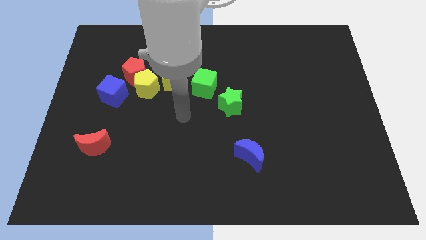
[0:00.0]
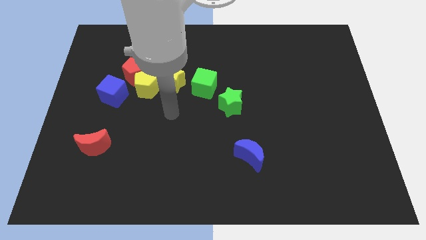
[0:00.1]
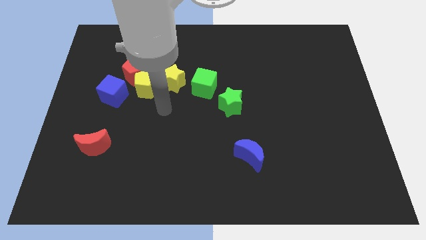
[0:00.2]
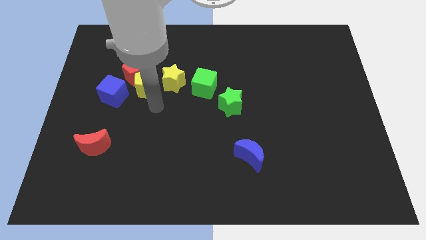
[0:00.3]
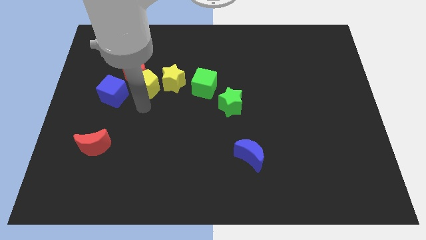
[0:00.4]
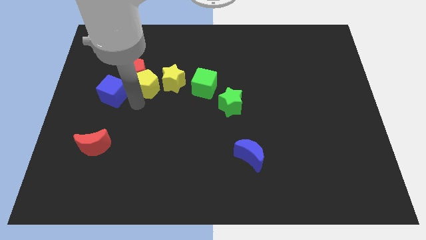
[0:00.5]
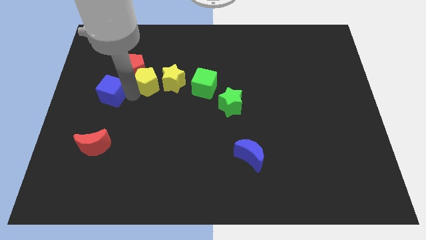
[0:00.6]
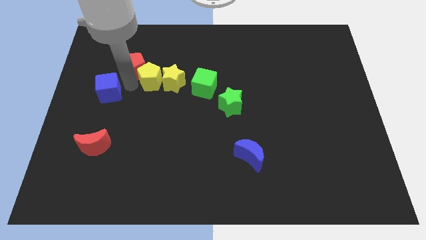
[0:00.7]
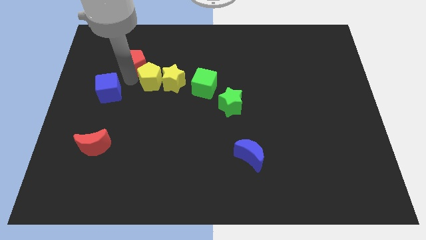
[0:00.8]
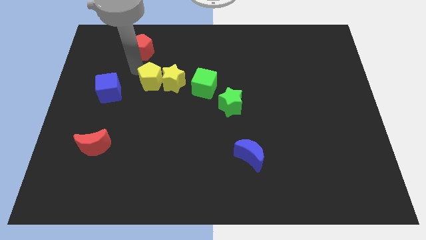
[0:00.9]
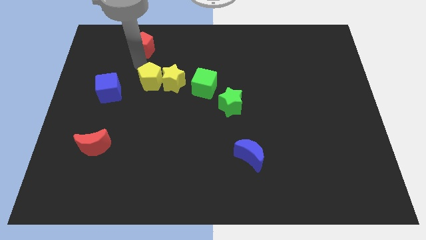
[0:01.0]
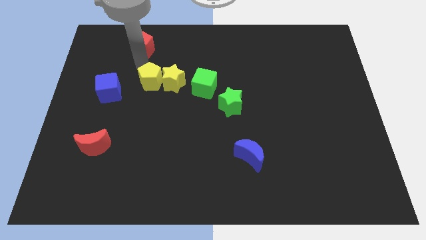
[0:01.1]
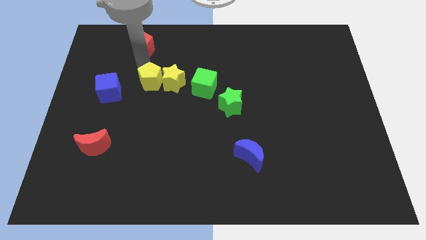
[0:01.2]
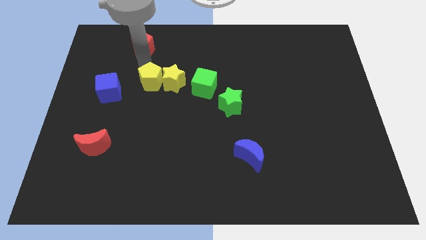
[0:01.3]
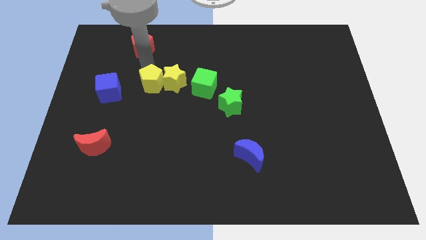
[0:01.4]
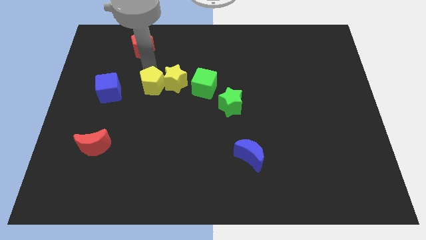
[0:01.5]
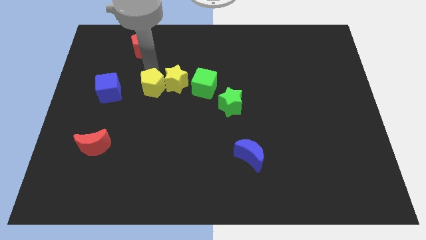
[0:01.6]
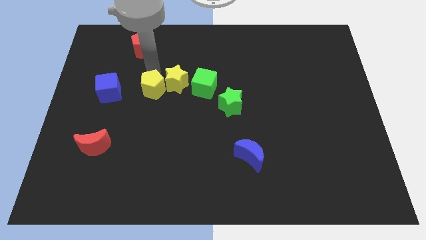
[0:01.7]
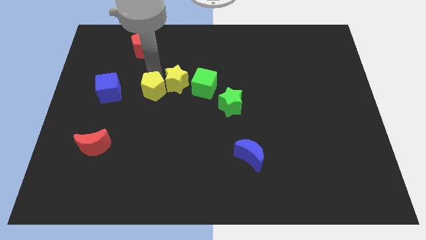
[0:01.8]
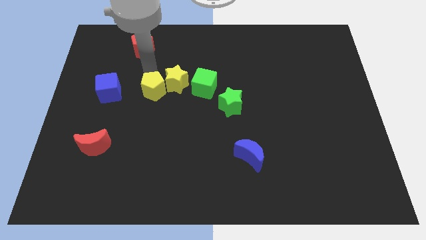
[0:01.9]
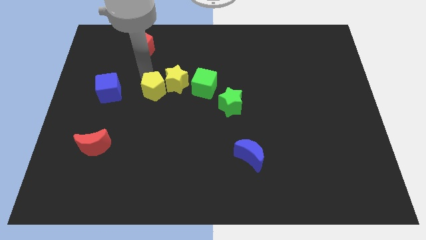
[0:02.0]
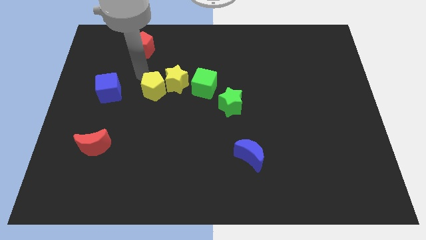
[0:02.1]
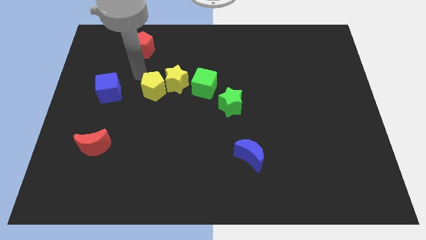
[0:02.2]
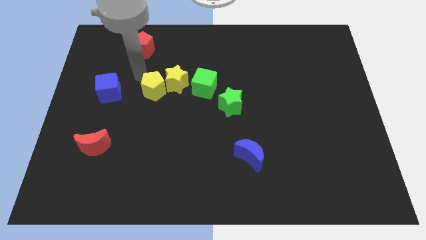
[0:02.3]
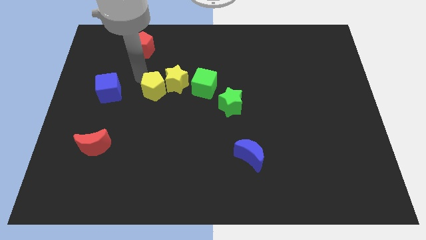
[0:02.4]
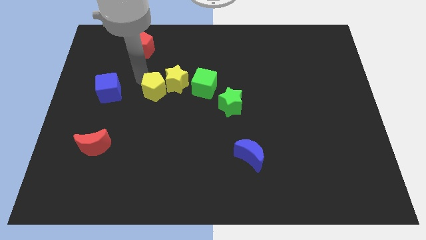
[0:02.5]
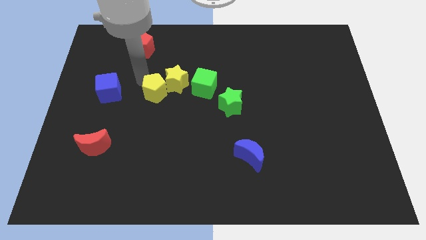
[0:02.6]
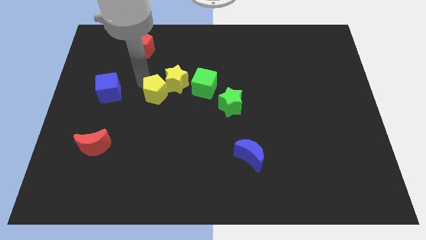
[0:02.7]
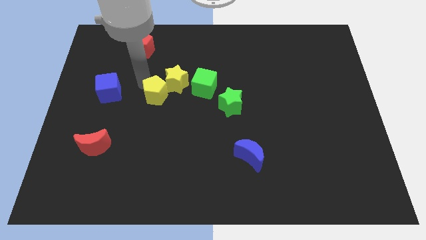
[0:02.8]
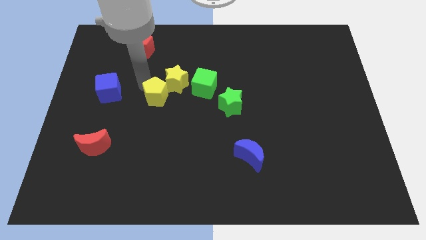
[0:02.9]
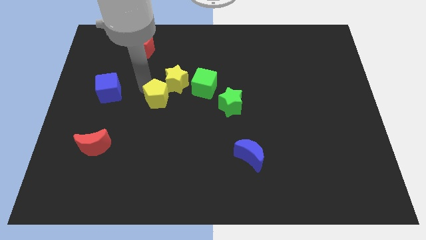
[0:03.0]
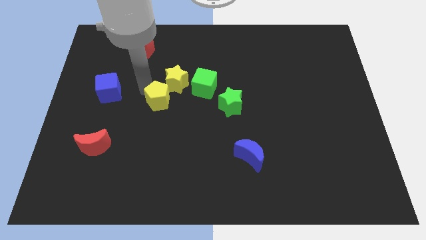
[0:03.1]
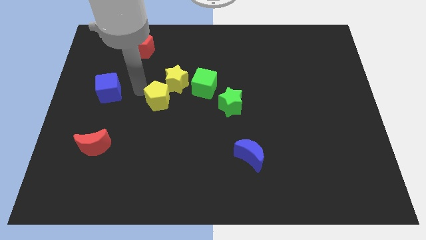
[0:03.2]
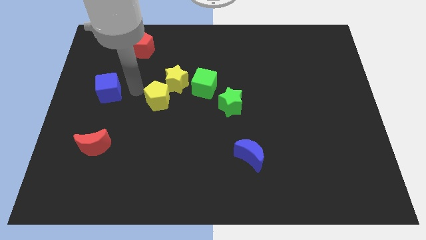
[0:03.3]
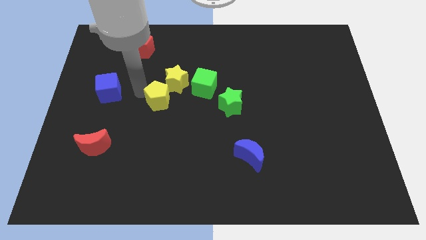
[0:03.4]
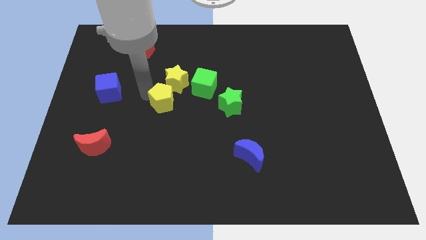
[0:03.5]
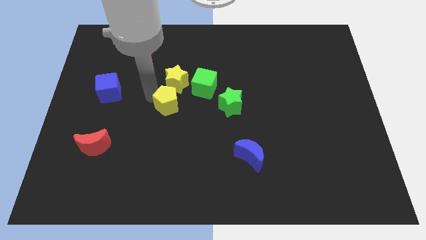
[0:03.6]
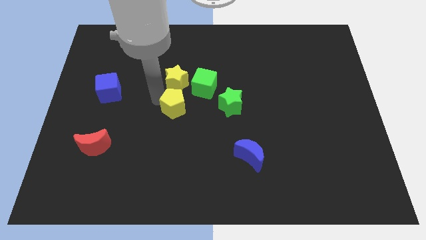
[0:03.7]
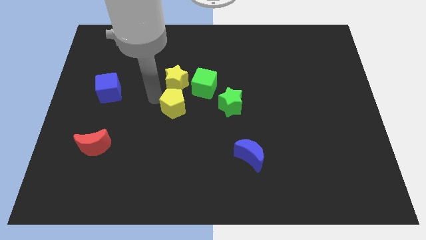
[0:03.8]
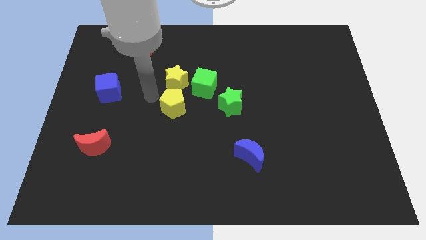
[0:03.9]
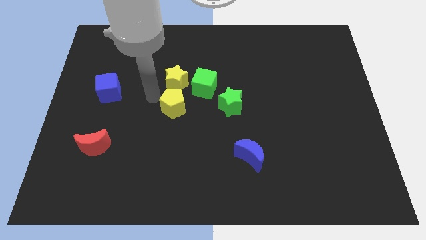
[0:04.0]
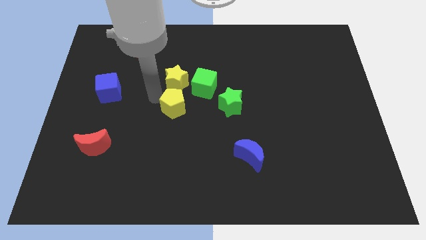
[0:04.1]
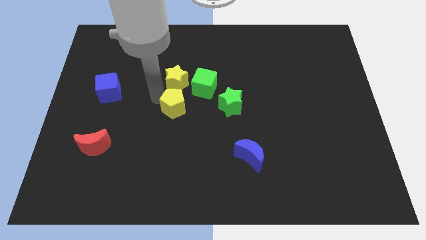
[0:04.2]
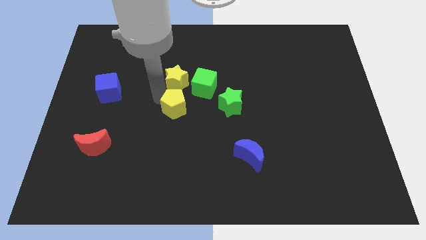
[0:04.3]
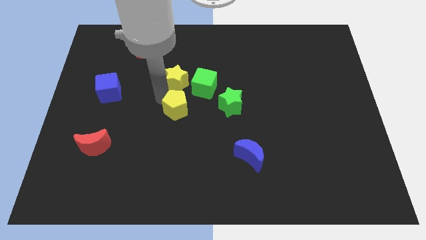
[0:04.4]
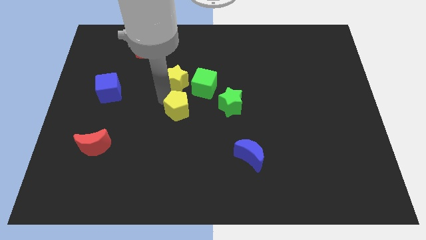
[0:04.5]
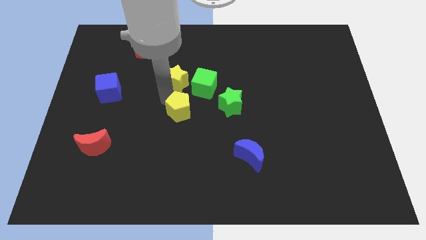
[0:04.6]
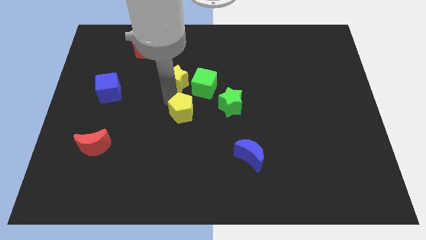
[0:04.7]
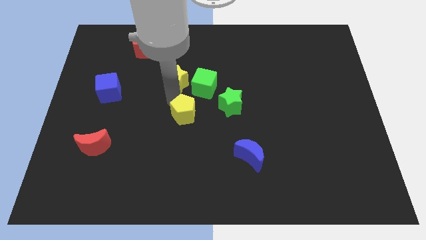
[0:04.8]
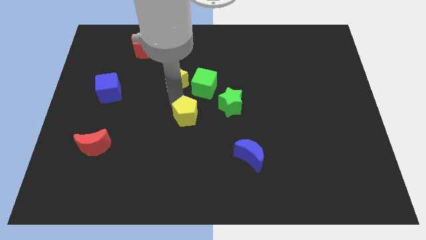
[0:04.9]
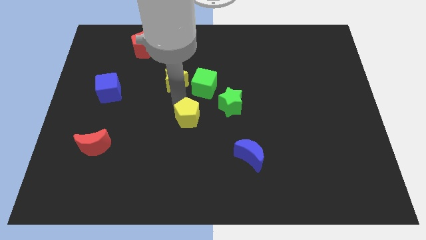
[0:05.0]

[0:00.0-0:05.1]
move the yellow pentagon to the bottom left side of the green star

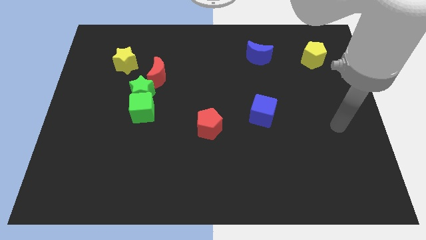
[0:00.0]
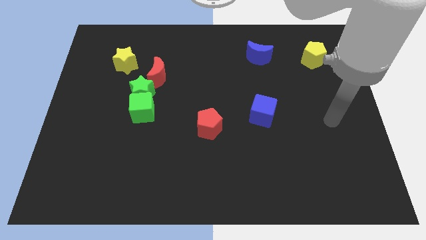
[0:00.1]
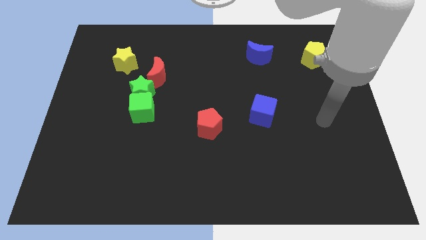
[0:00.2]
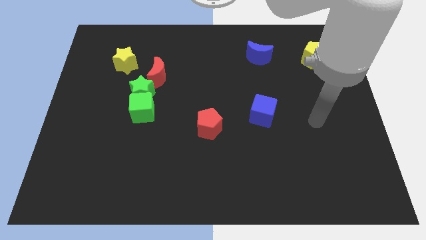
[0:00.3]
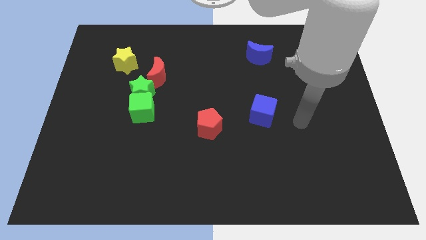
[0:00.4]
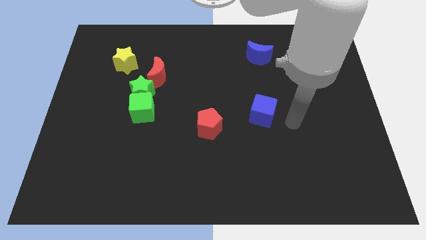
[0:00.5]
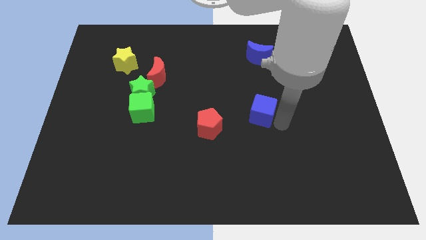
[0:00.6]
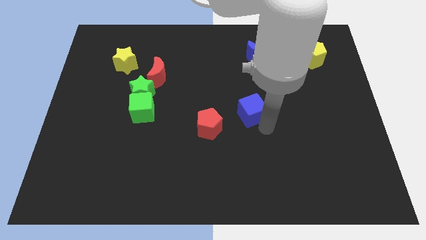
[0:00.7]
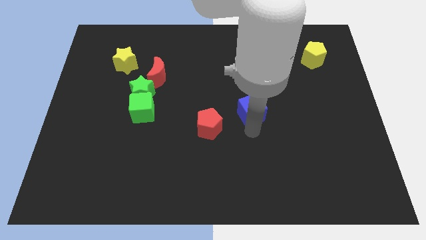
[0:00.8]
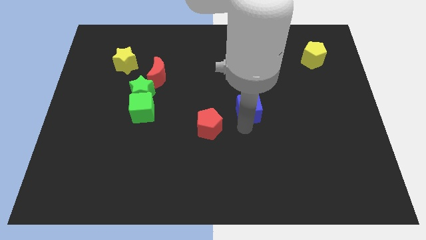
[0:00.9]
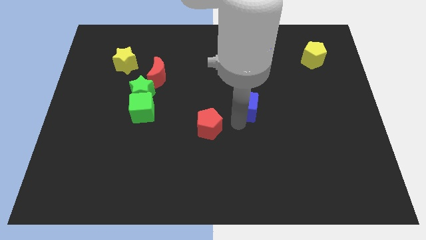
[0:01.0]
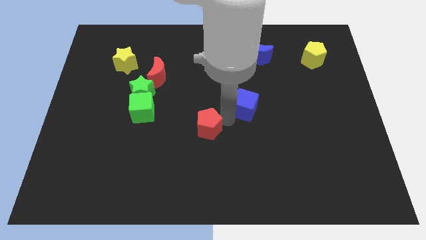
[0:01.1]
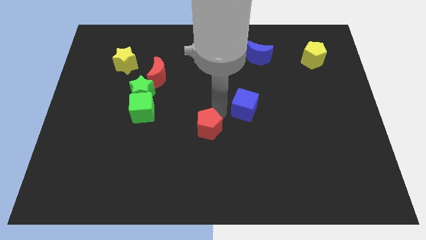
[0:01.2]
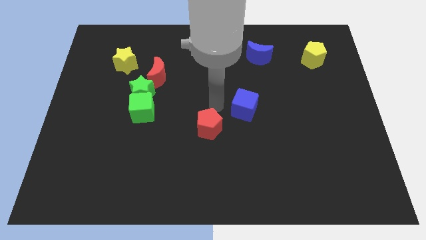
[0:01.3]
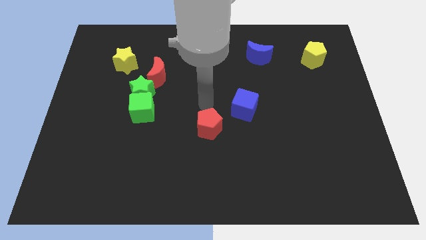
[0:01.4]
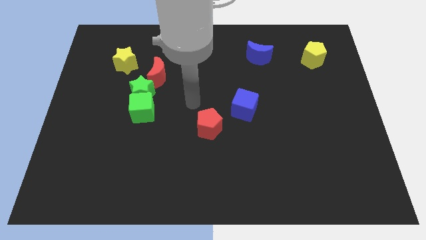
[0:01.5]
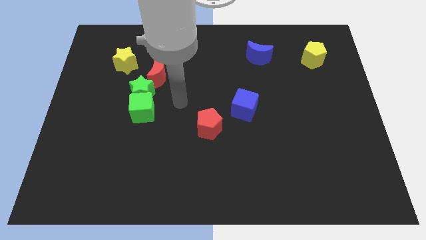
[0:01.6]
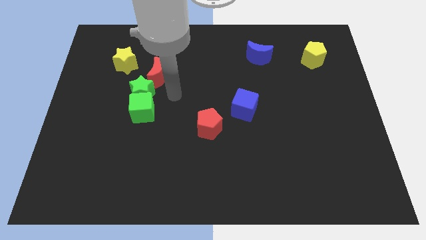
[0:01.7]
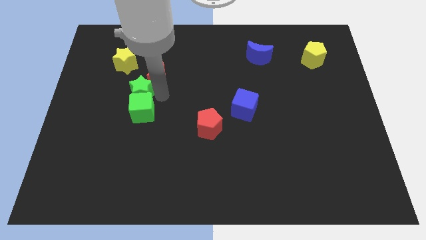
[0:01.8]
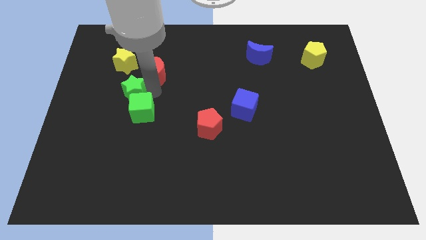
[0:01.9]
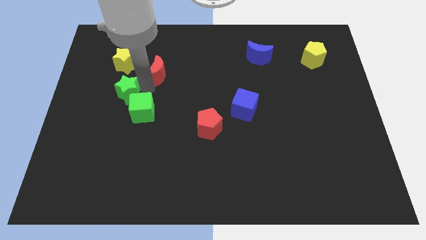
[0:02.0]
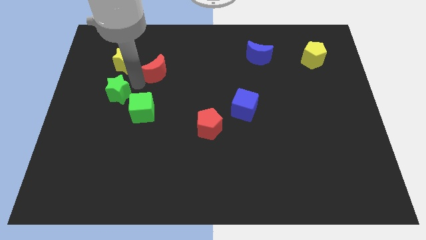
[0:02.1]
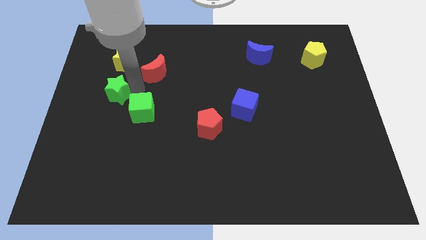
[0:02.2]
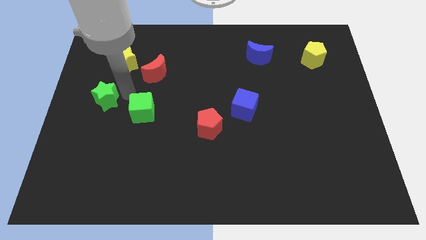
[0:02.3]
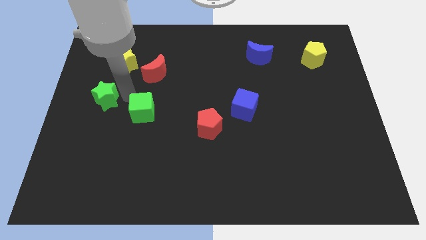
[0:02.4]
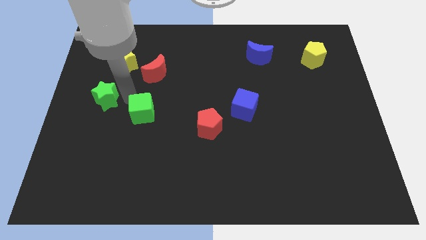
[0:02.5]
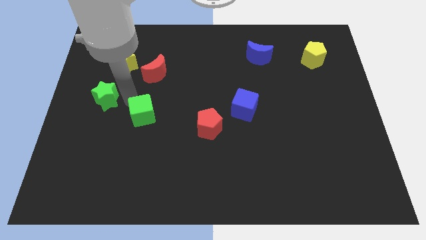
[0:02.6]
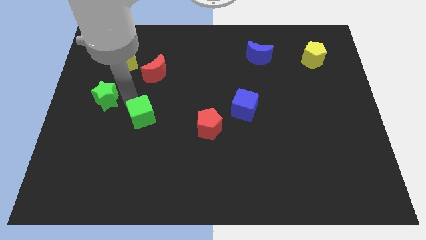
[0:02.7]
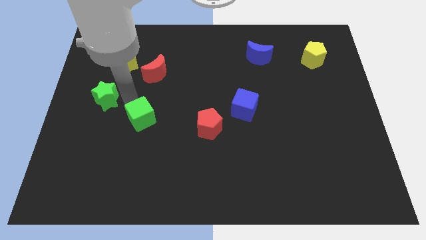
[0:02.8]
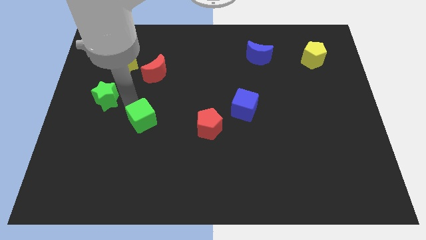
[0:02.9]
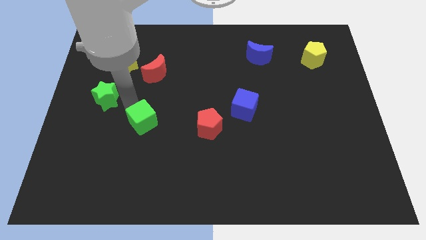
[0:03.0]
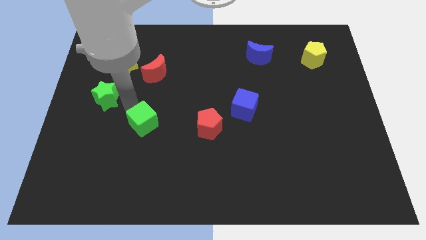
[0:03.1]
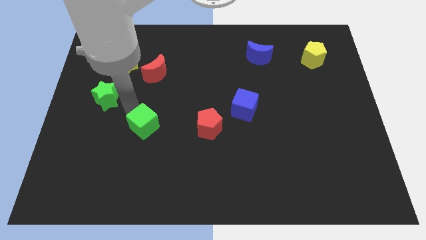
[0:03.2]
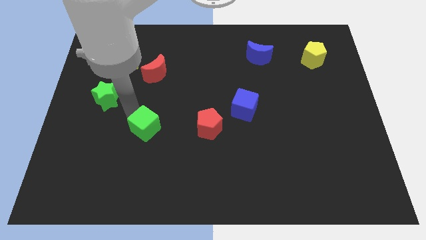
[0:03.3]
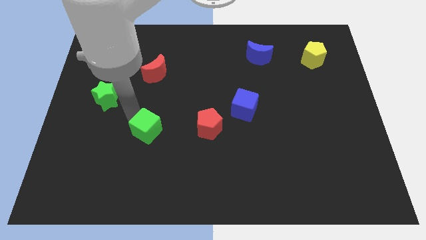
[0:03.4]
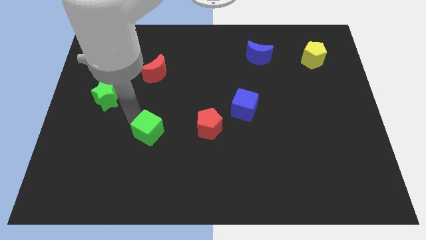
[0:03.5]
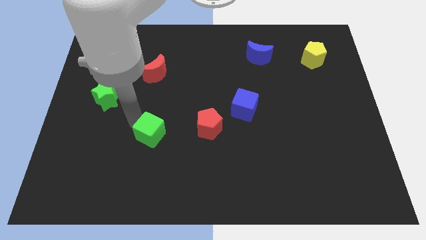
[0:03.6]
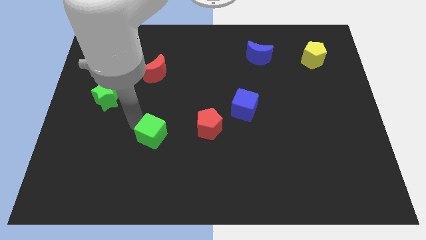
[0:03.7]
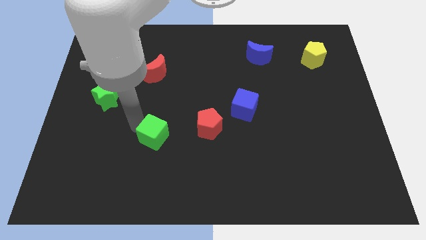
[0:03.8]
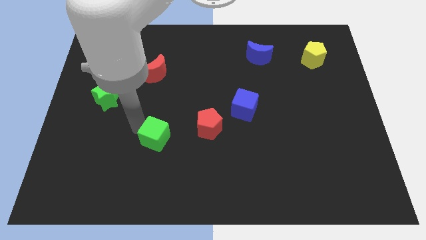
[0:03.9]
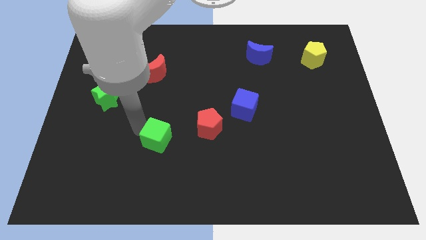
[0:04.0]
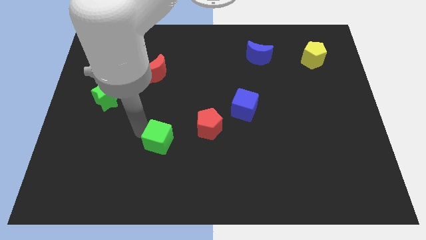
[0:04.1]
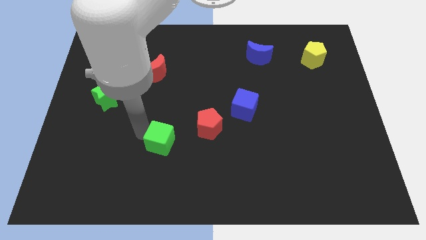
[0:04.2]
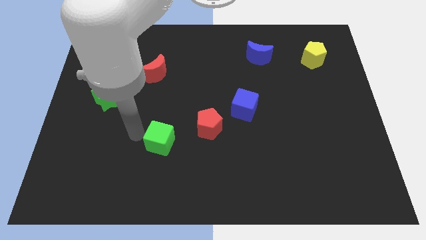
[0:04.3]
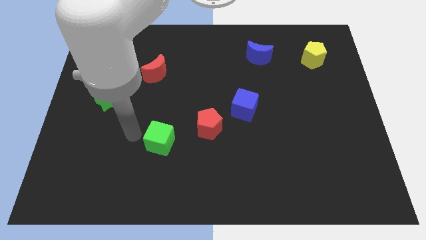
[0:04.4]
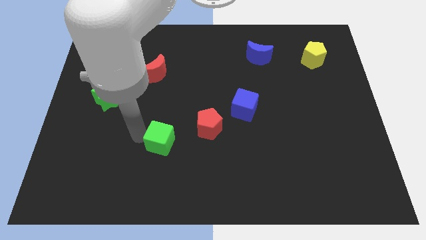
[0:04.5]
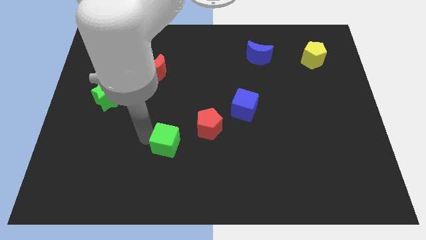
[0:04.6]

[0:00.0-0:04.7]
slide the green cube diagonally down and to the left of the red pentagon
